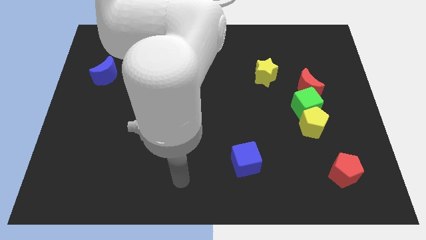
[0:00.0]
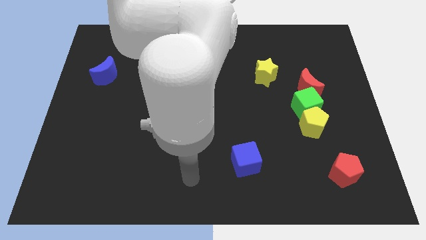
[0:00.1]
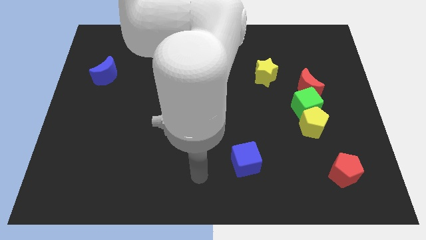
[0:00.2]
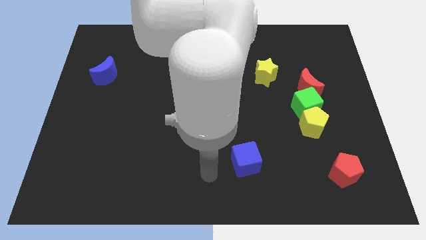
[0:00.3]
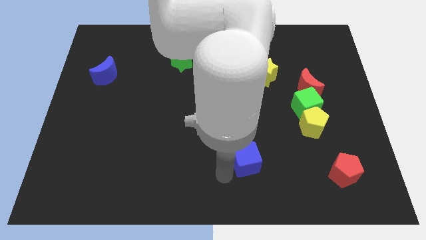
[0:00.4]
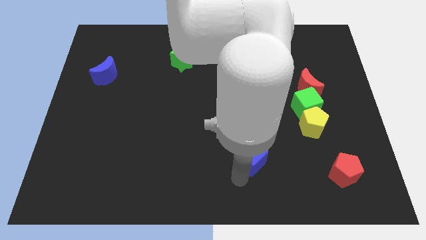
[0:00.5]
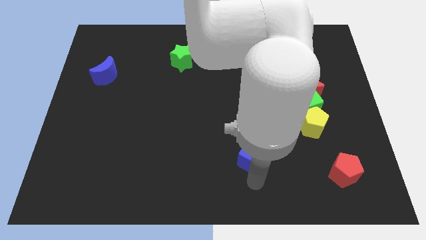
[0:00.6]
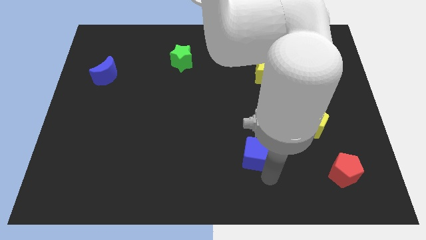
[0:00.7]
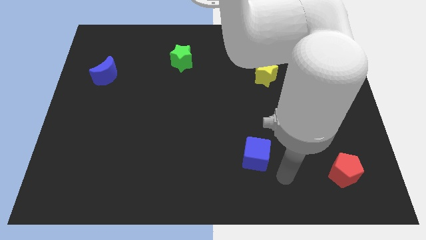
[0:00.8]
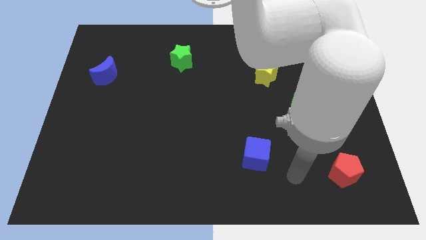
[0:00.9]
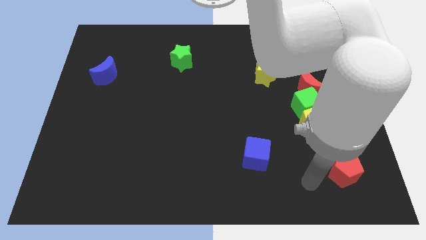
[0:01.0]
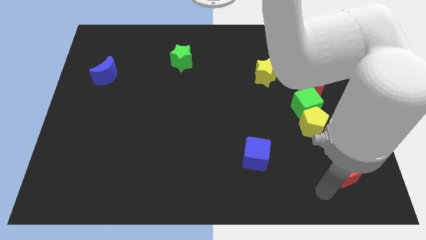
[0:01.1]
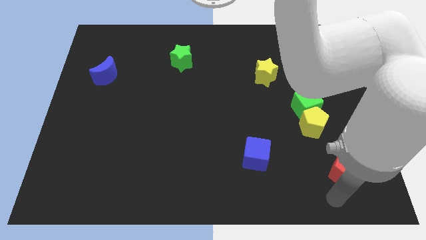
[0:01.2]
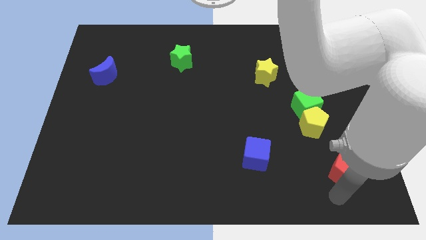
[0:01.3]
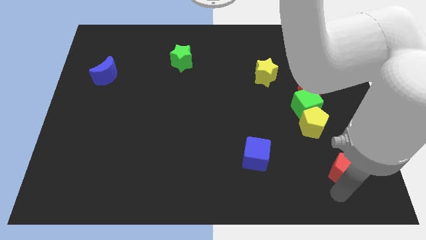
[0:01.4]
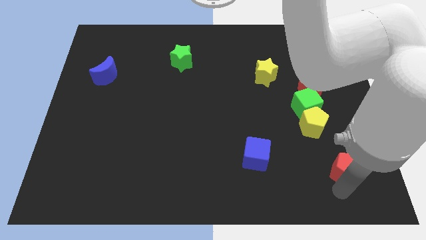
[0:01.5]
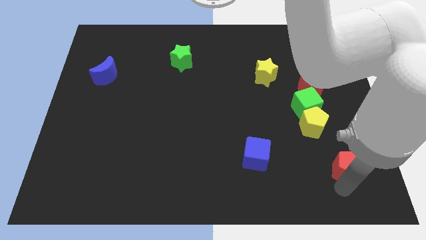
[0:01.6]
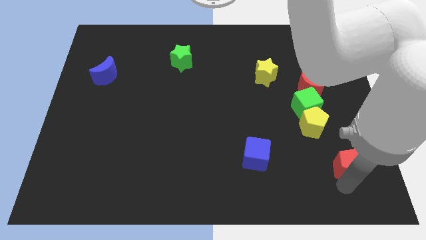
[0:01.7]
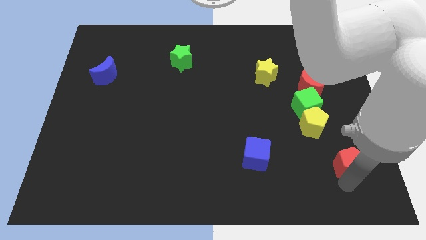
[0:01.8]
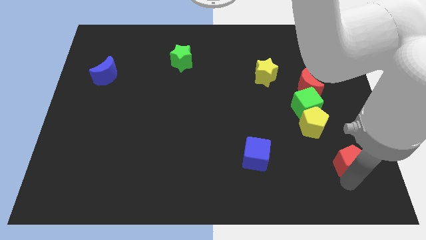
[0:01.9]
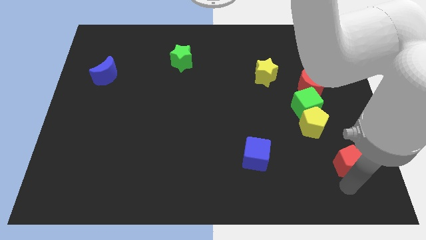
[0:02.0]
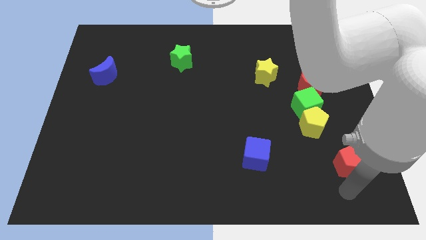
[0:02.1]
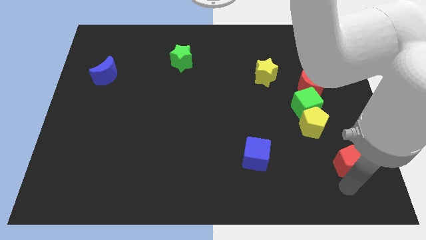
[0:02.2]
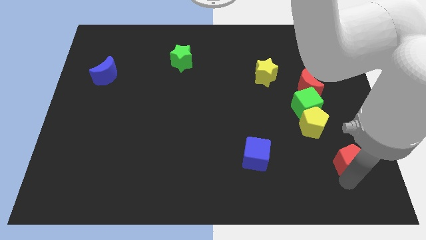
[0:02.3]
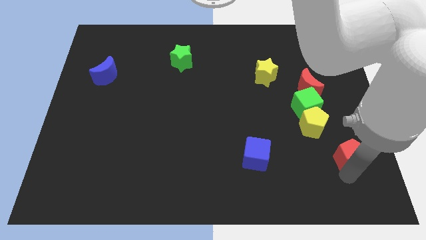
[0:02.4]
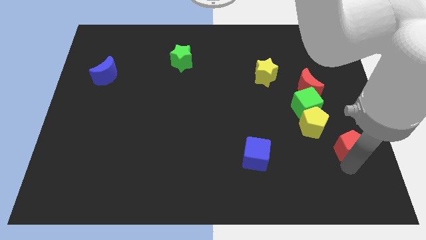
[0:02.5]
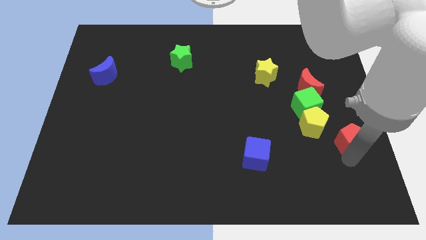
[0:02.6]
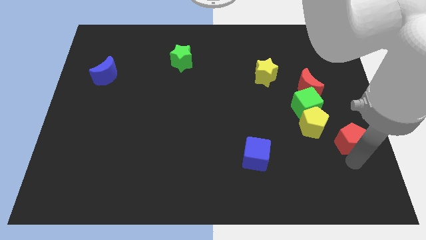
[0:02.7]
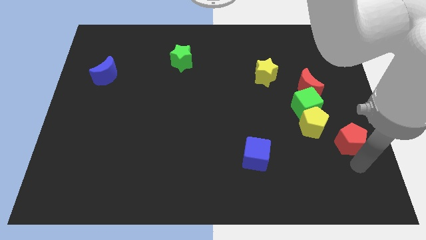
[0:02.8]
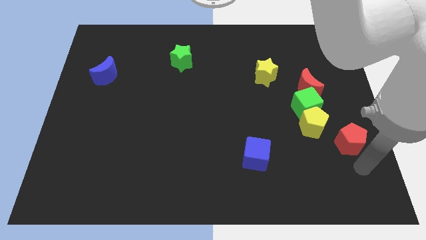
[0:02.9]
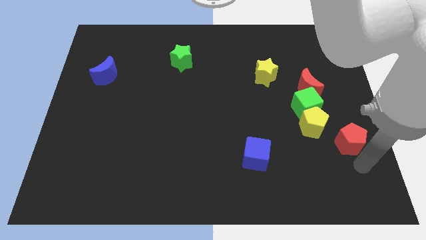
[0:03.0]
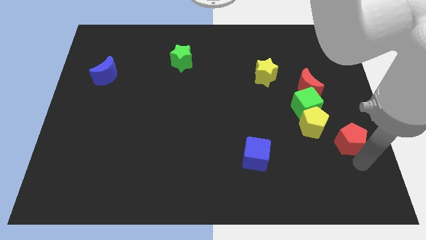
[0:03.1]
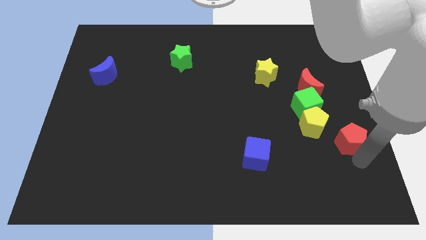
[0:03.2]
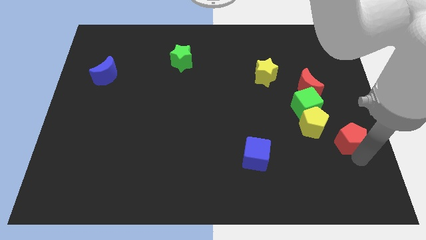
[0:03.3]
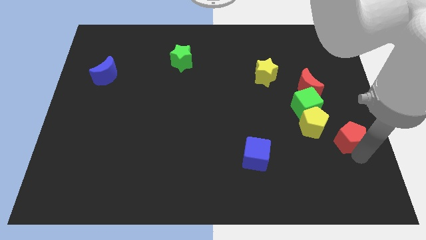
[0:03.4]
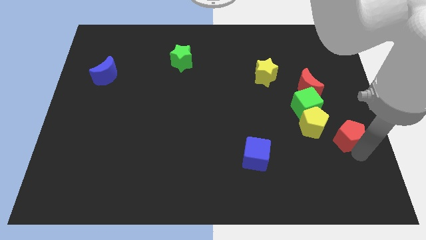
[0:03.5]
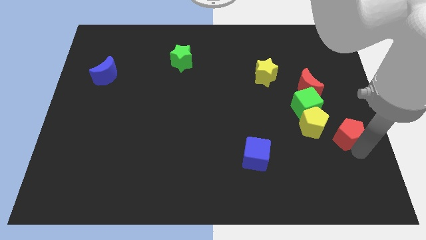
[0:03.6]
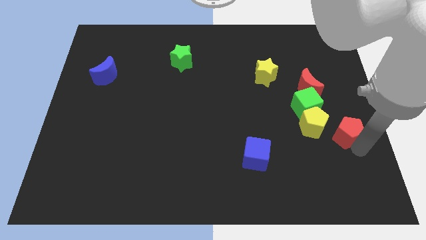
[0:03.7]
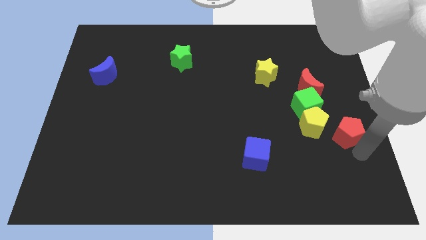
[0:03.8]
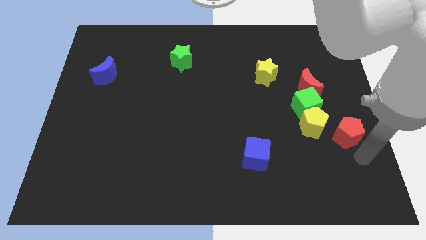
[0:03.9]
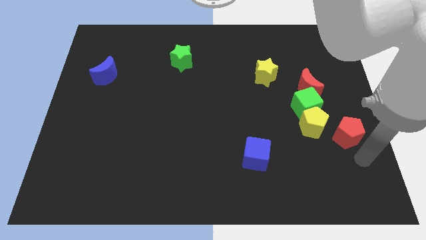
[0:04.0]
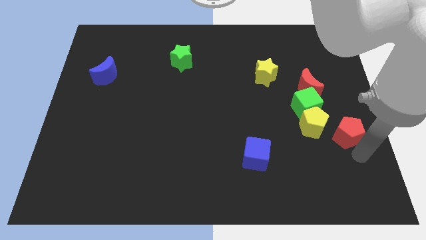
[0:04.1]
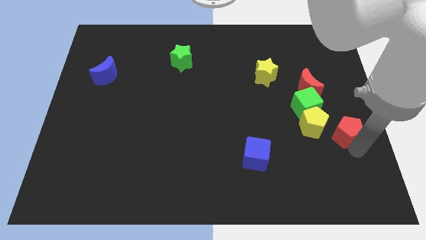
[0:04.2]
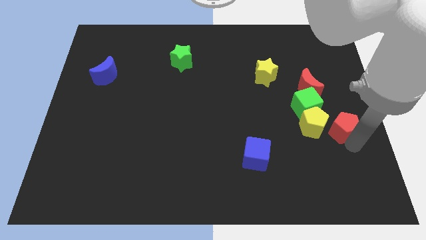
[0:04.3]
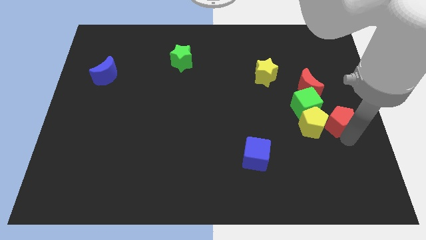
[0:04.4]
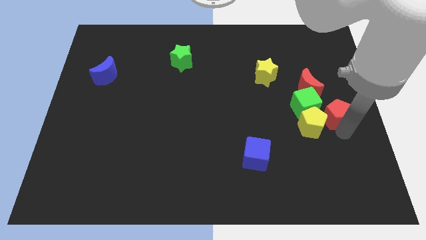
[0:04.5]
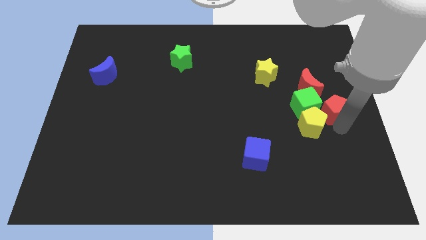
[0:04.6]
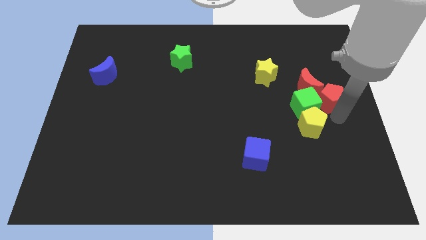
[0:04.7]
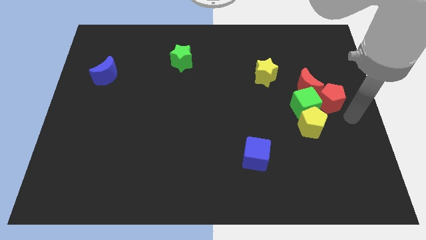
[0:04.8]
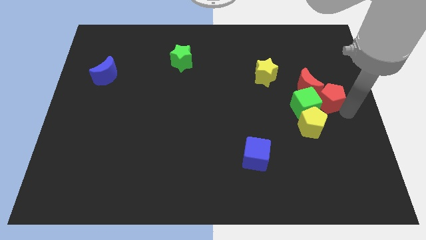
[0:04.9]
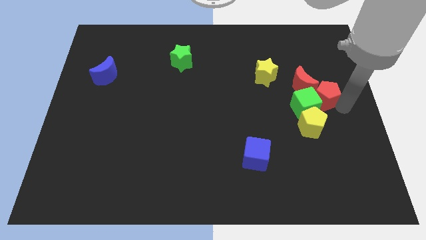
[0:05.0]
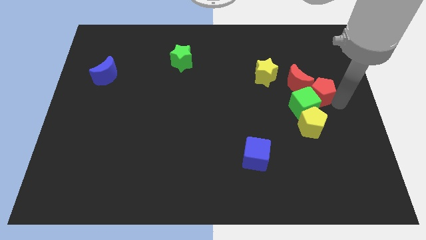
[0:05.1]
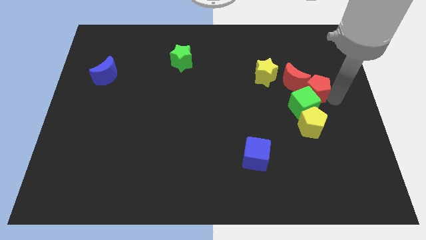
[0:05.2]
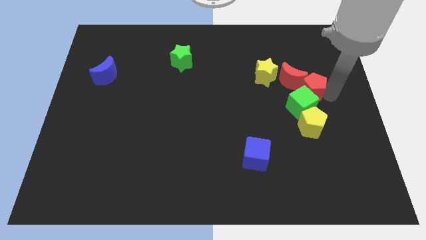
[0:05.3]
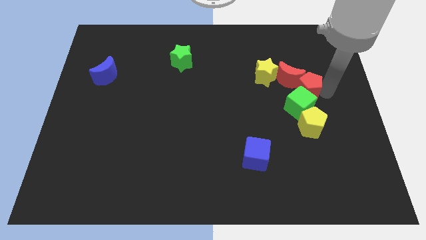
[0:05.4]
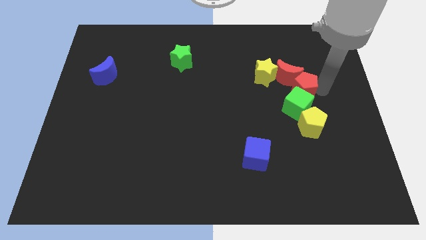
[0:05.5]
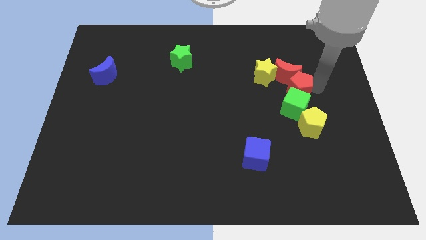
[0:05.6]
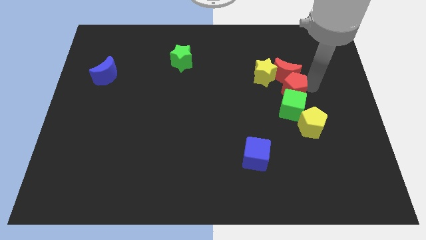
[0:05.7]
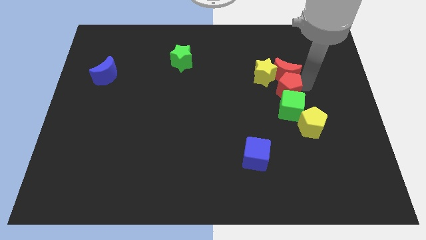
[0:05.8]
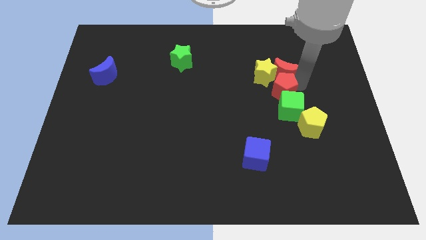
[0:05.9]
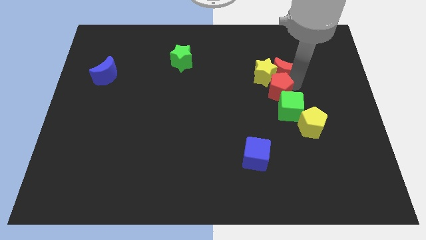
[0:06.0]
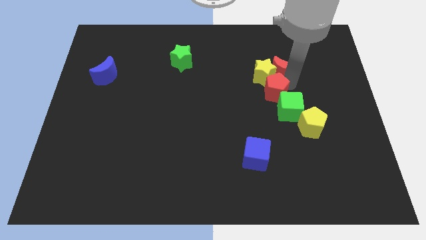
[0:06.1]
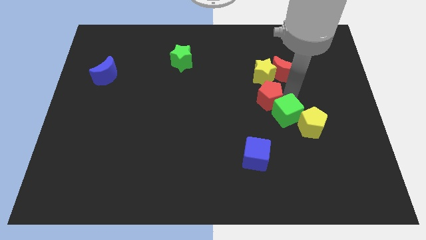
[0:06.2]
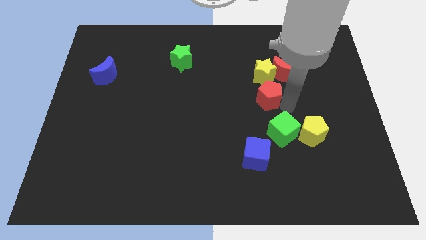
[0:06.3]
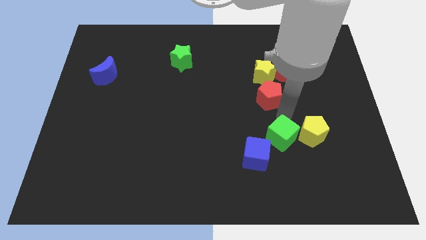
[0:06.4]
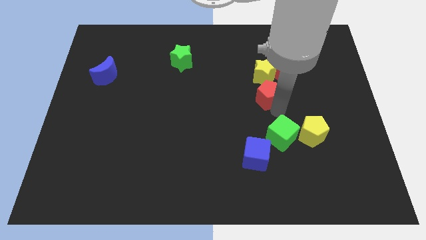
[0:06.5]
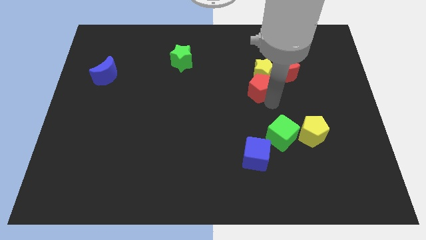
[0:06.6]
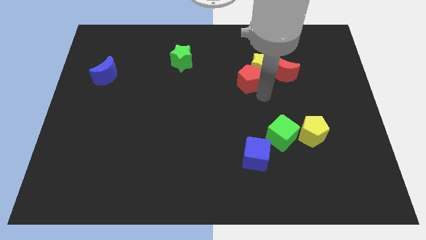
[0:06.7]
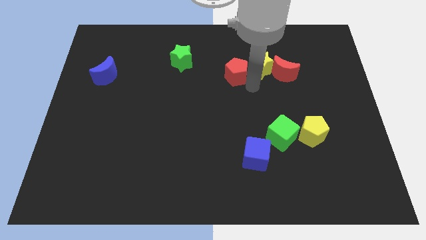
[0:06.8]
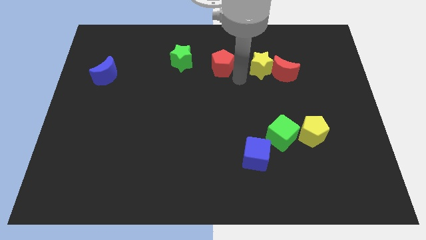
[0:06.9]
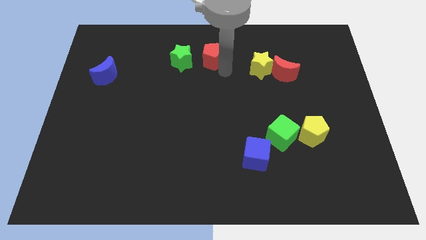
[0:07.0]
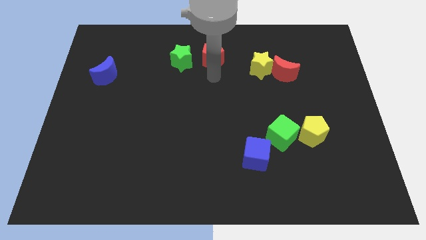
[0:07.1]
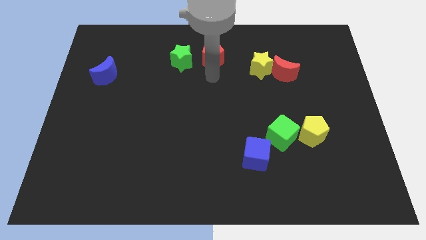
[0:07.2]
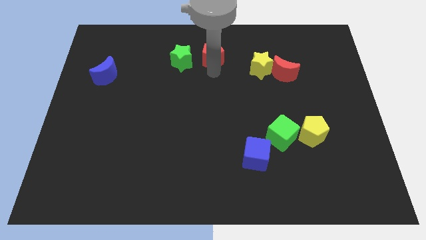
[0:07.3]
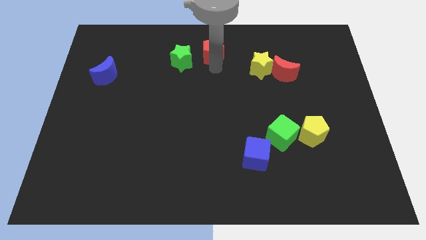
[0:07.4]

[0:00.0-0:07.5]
put the red pentagon to the top side
